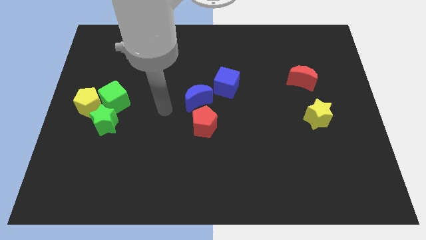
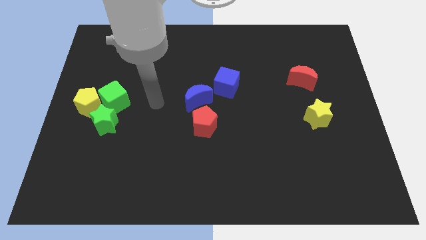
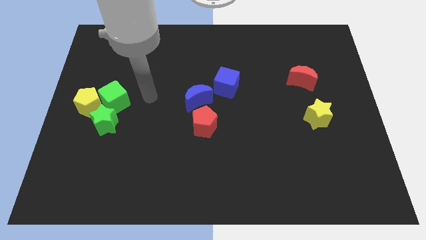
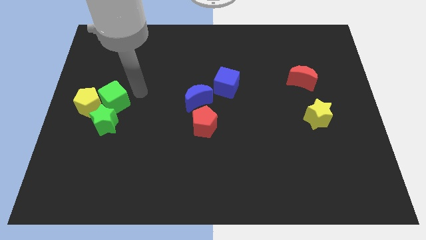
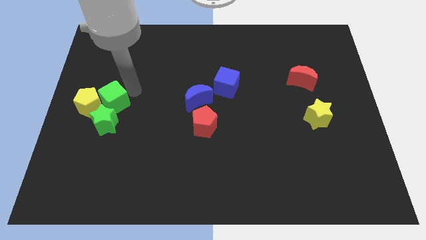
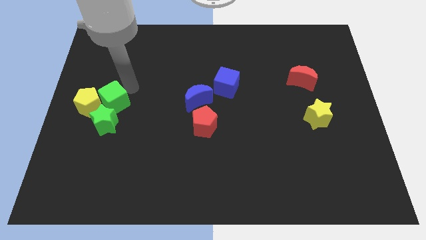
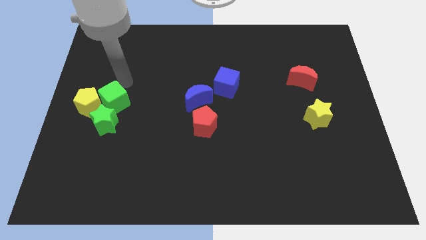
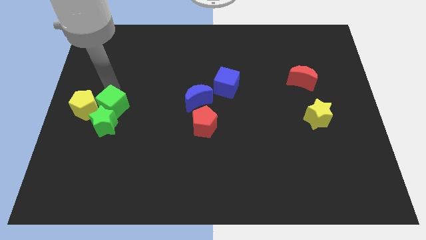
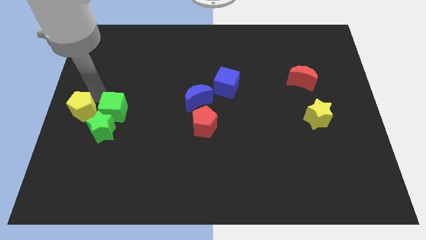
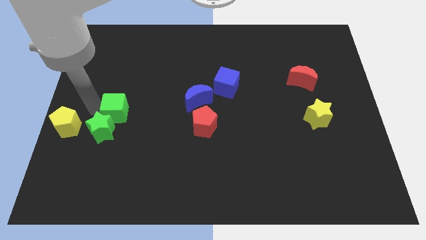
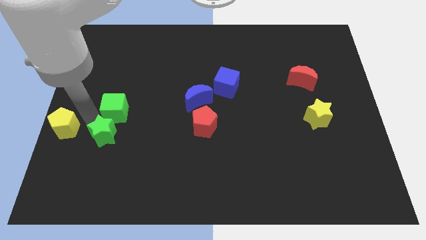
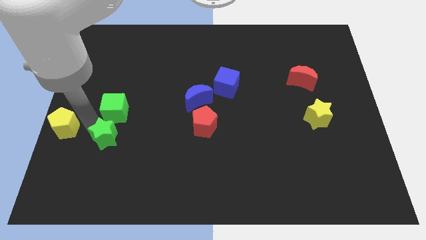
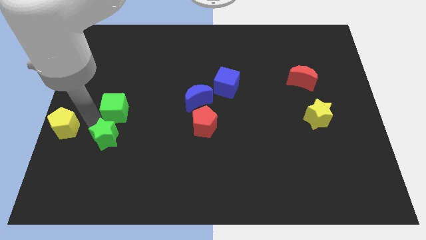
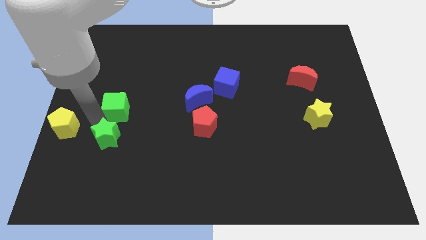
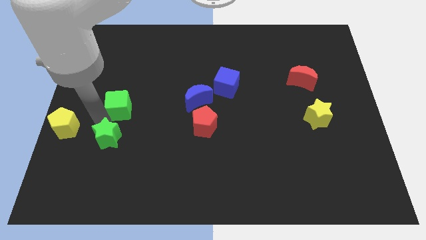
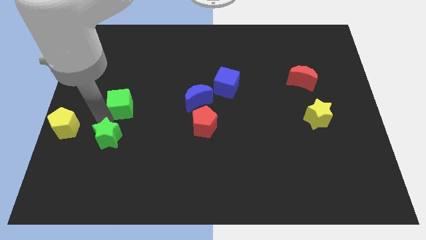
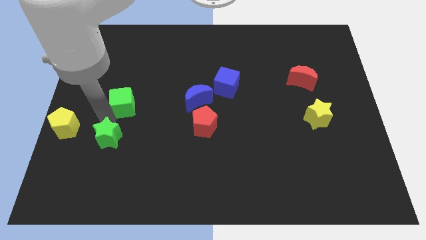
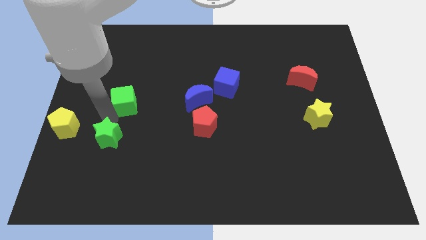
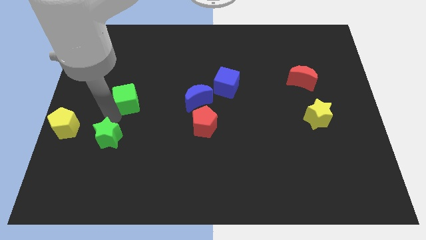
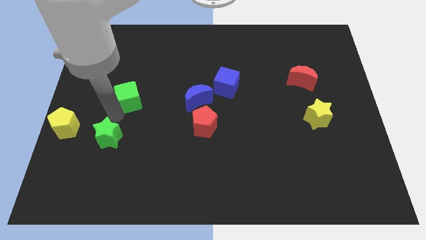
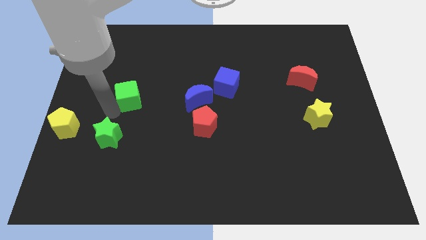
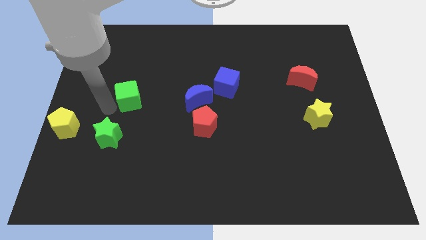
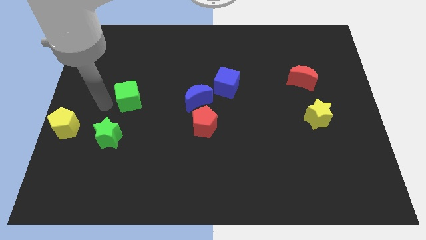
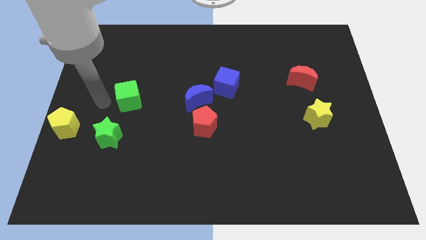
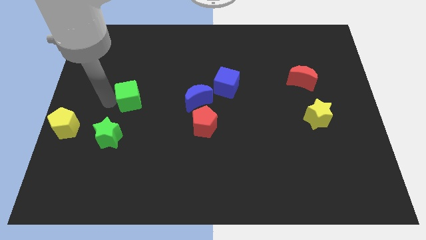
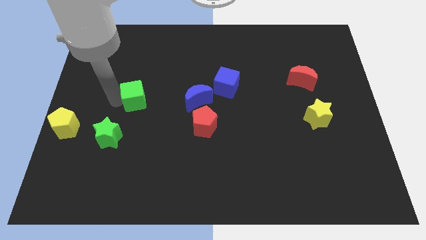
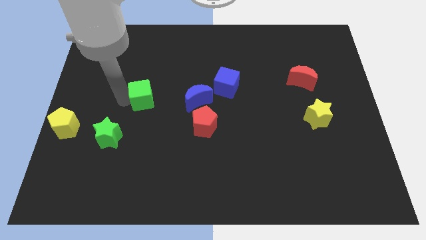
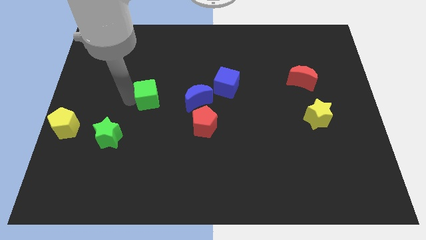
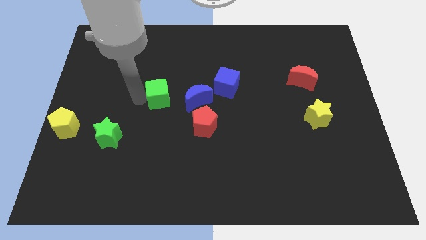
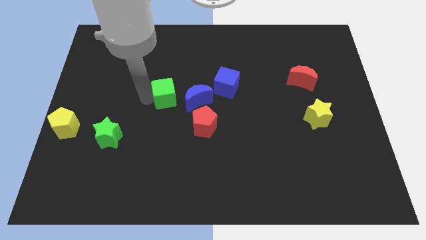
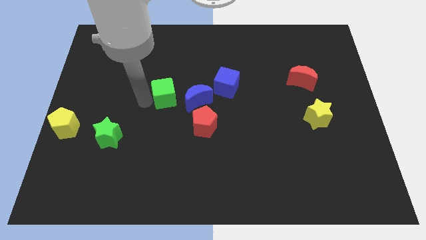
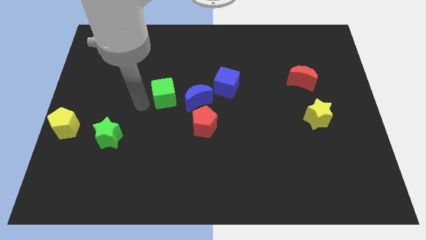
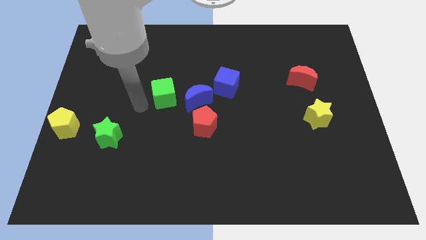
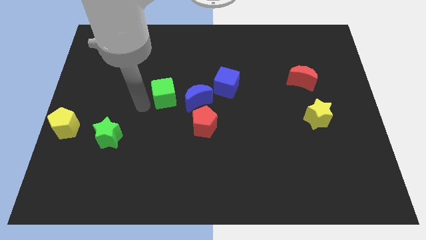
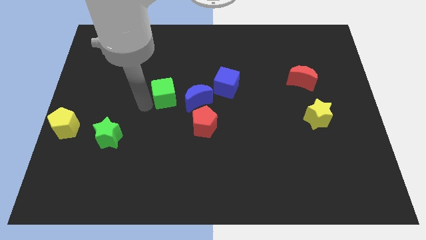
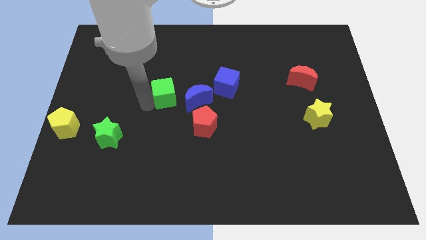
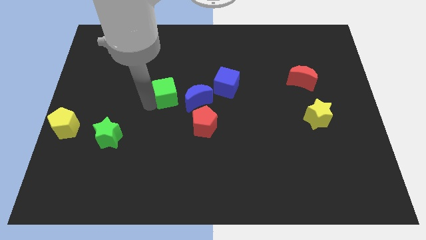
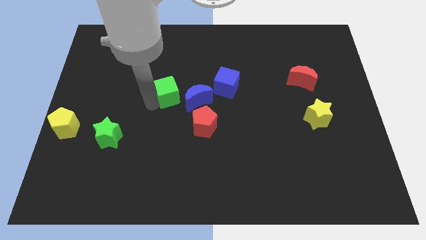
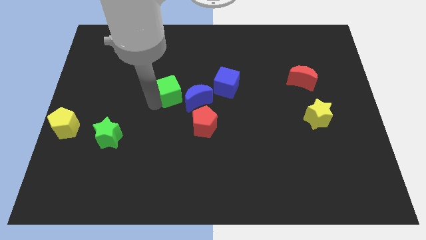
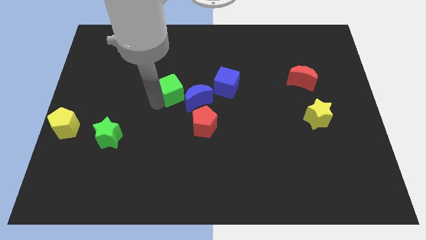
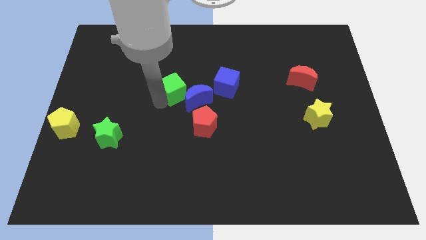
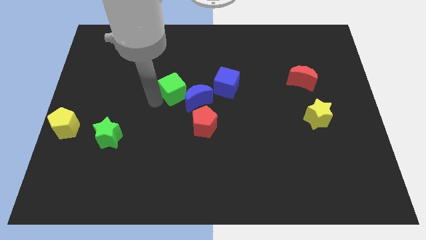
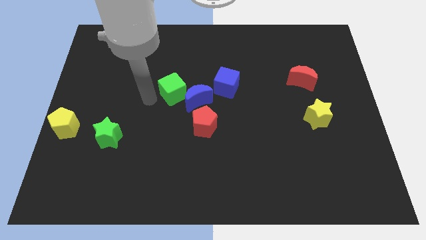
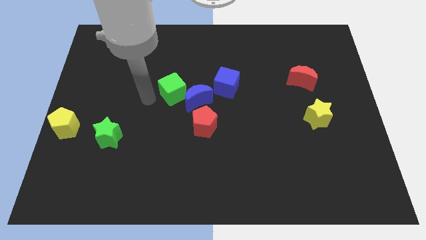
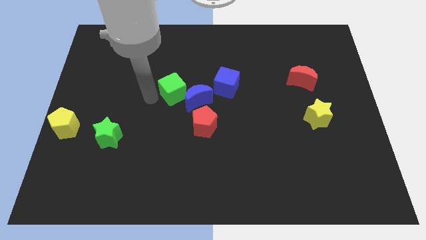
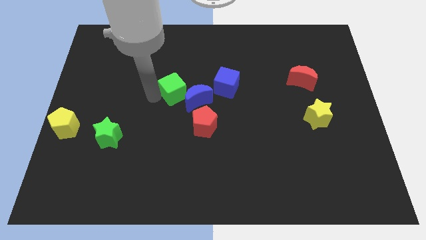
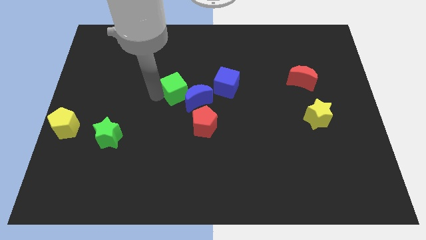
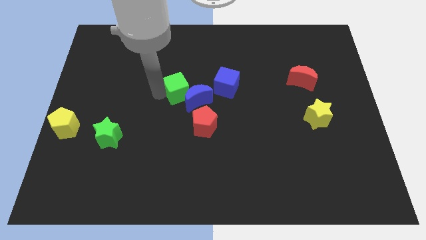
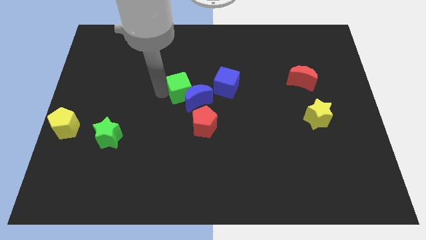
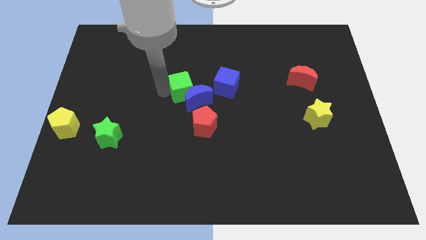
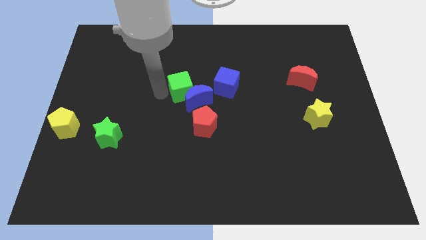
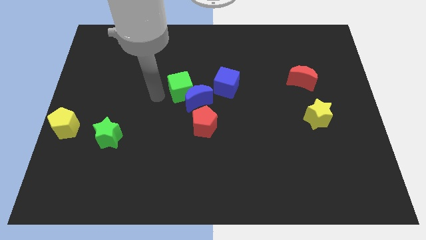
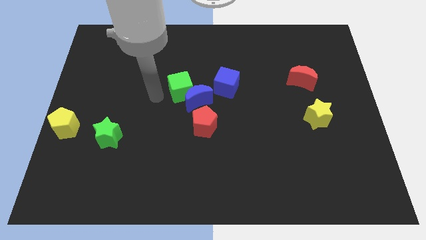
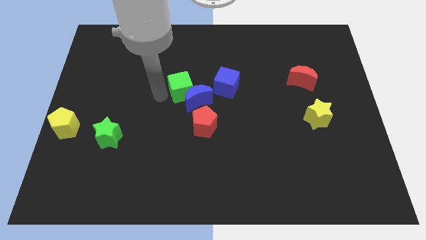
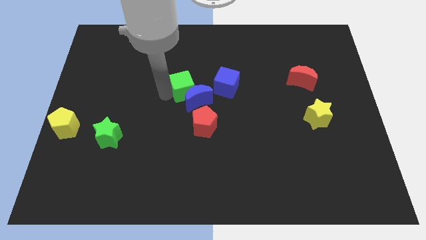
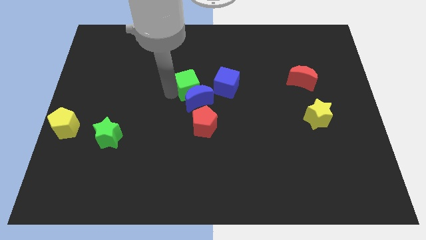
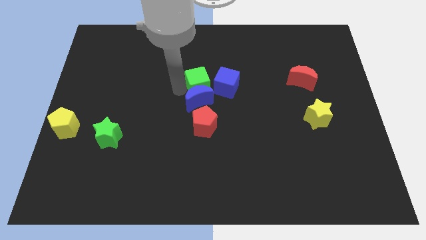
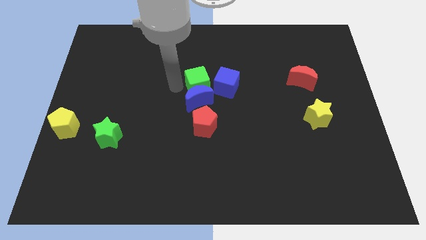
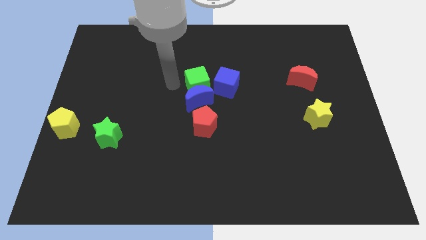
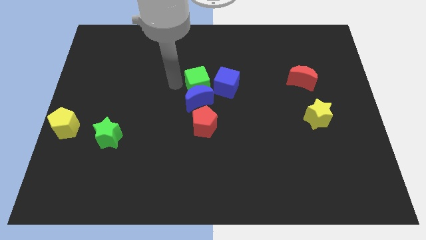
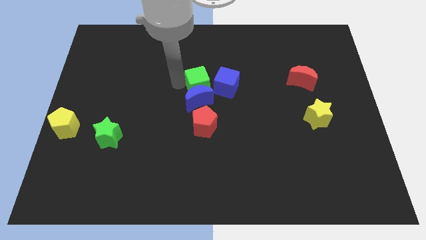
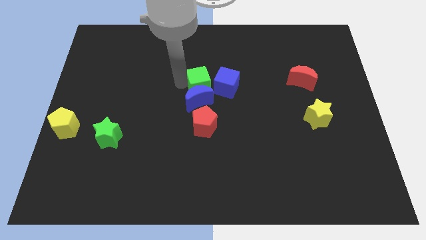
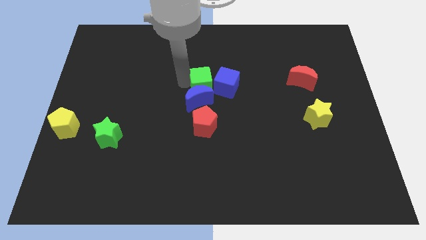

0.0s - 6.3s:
slide the green cube towards the blue cube
